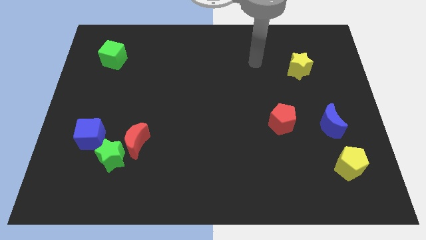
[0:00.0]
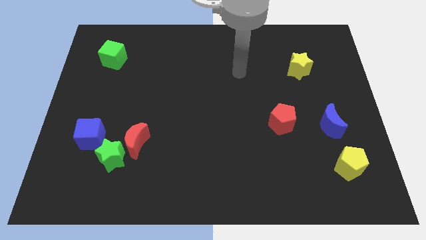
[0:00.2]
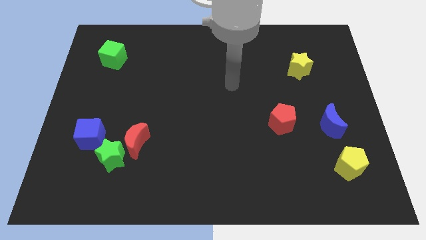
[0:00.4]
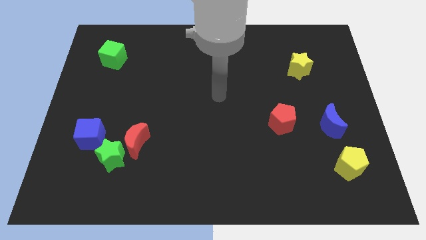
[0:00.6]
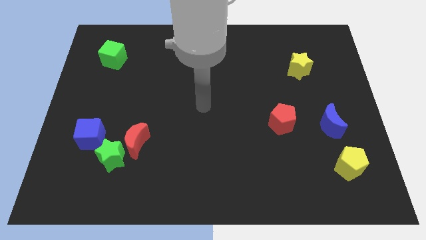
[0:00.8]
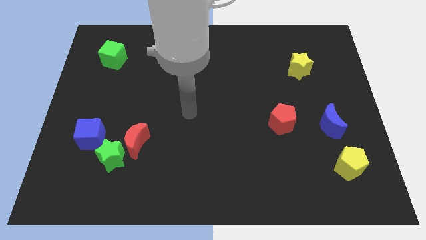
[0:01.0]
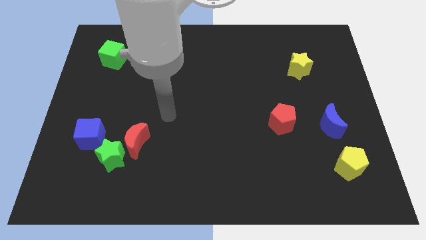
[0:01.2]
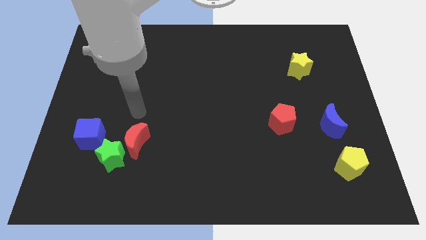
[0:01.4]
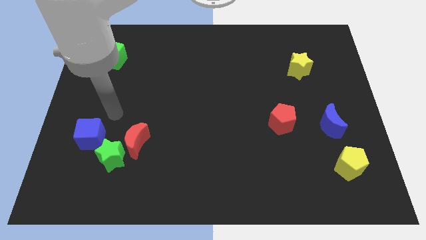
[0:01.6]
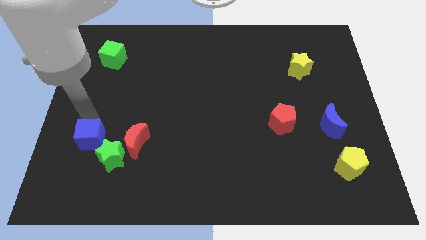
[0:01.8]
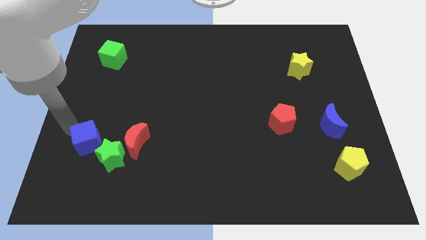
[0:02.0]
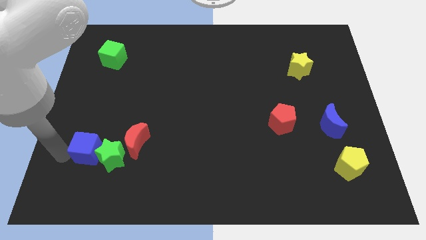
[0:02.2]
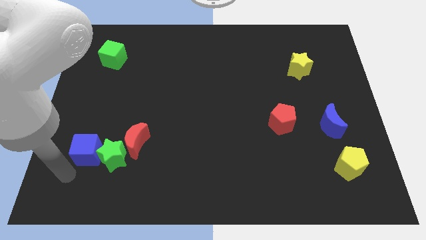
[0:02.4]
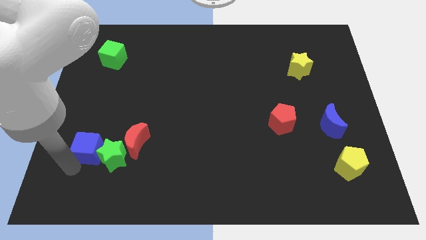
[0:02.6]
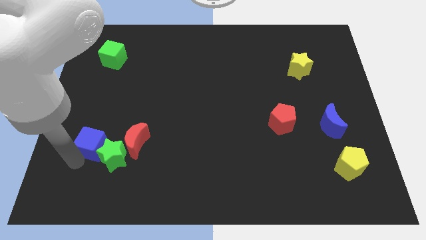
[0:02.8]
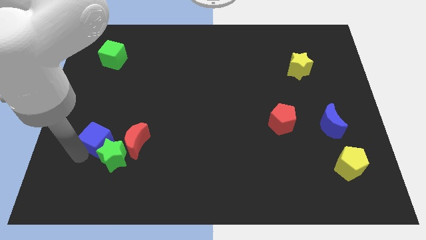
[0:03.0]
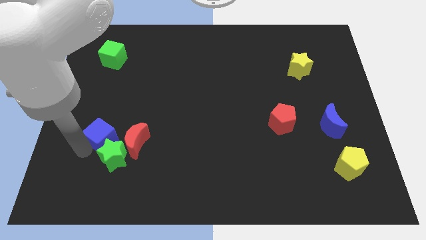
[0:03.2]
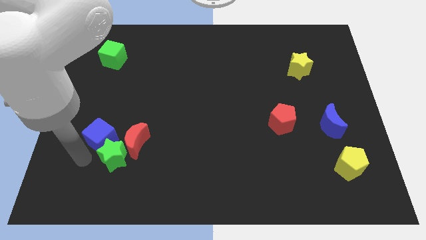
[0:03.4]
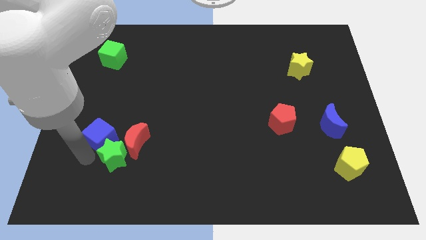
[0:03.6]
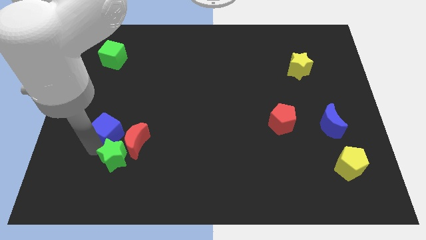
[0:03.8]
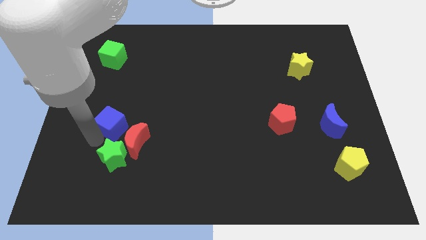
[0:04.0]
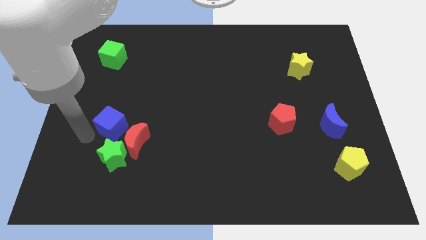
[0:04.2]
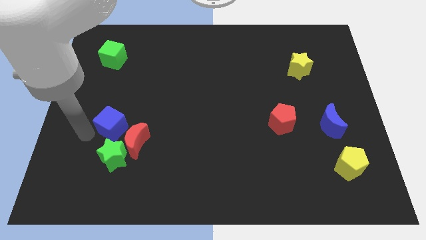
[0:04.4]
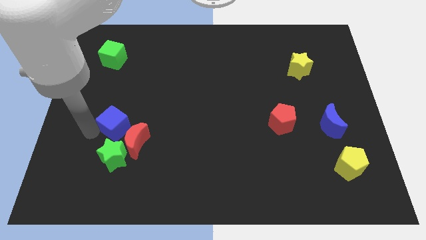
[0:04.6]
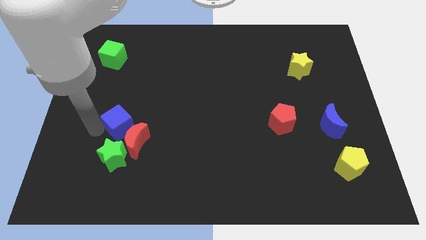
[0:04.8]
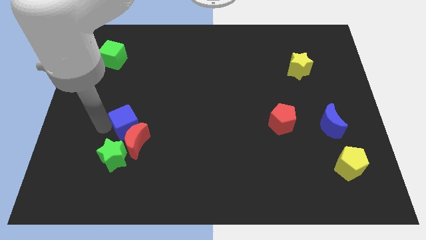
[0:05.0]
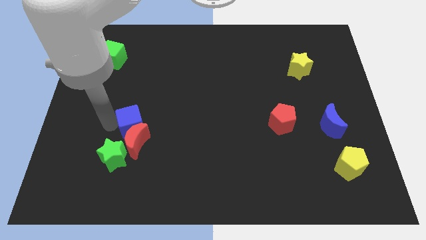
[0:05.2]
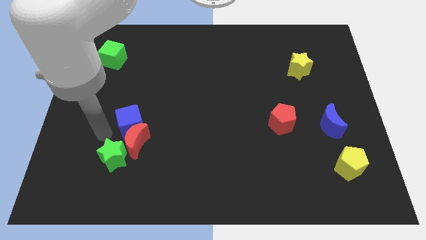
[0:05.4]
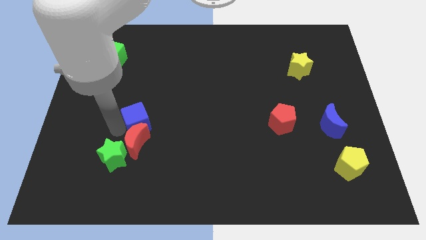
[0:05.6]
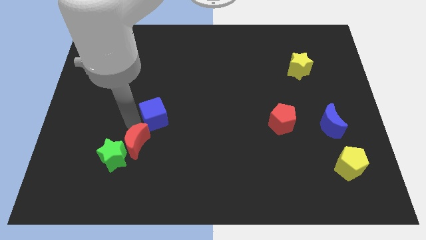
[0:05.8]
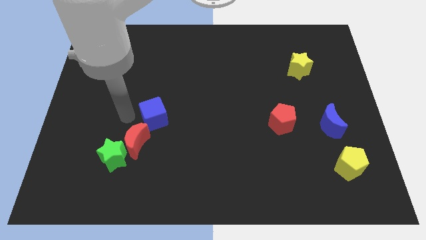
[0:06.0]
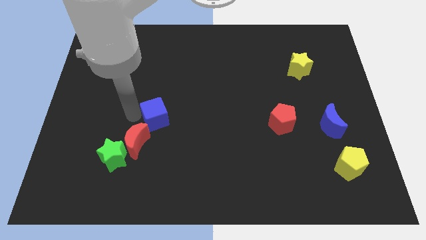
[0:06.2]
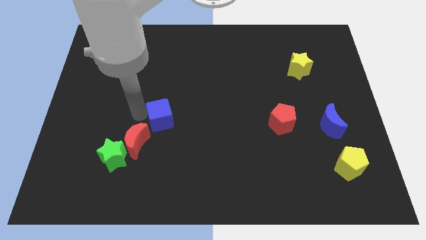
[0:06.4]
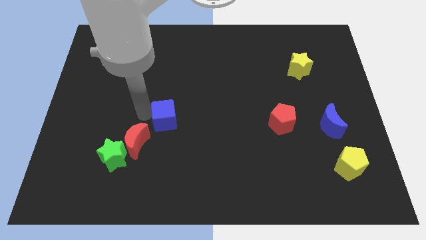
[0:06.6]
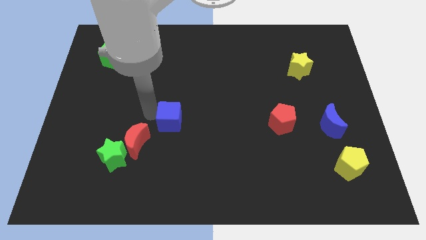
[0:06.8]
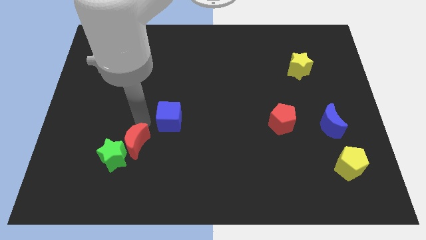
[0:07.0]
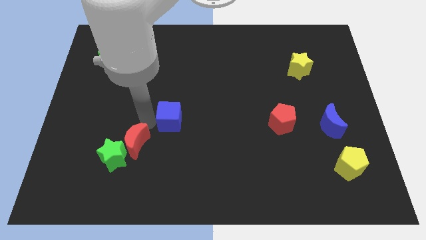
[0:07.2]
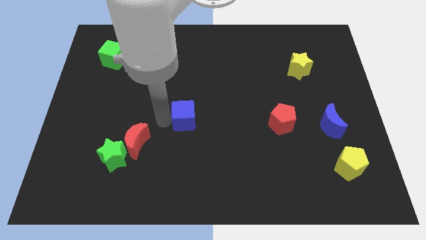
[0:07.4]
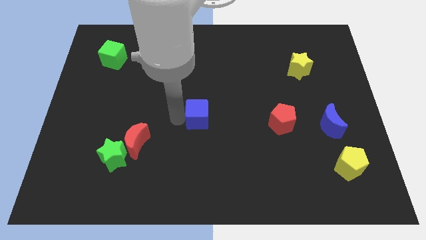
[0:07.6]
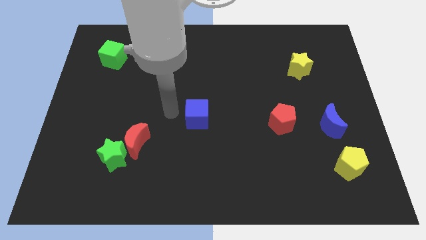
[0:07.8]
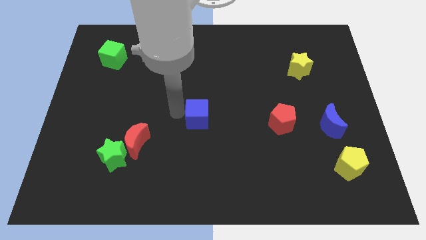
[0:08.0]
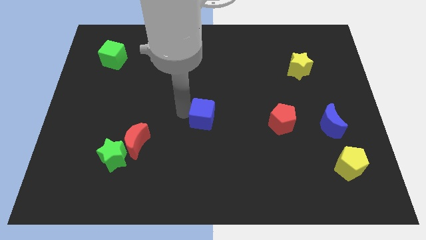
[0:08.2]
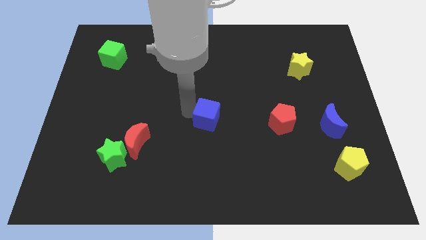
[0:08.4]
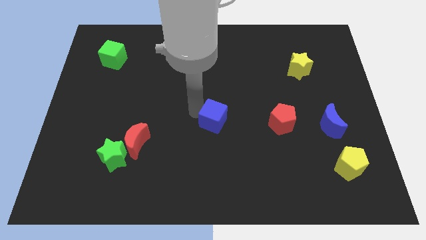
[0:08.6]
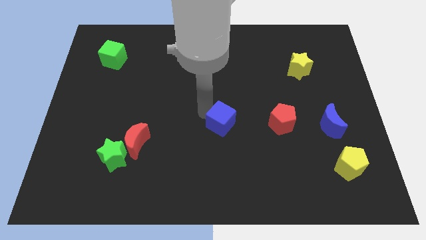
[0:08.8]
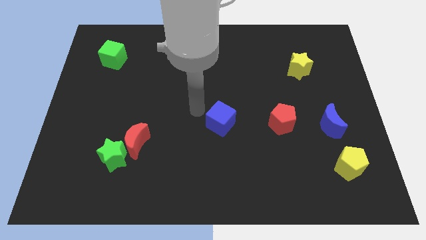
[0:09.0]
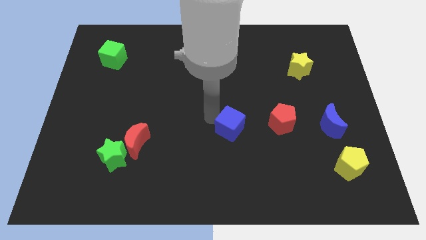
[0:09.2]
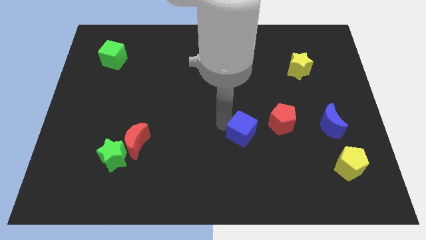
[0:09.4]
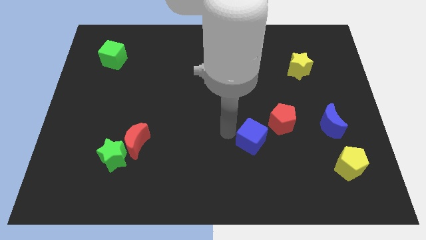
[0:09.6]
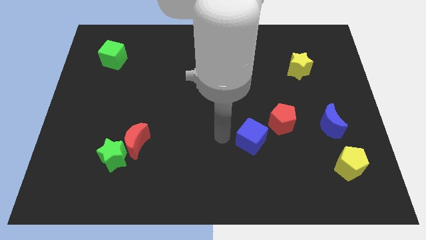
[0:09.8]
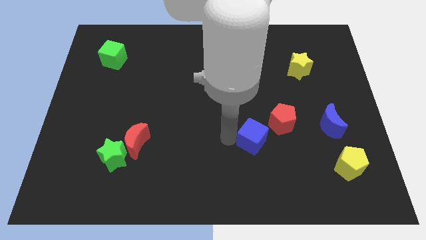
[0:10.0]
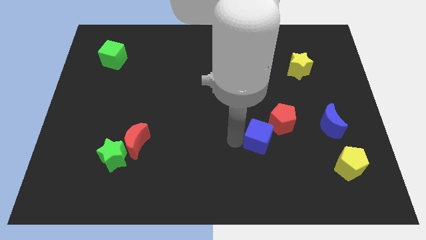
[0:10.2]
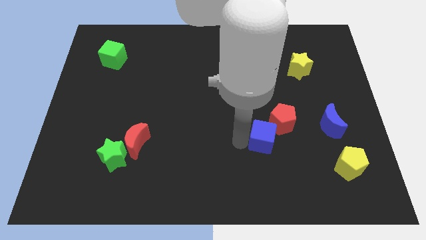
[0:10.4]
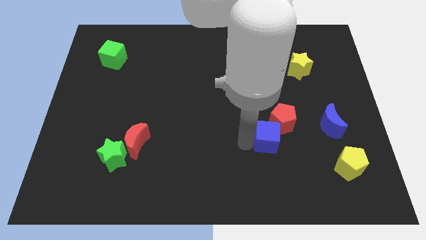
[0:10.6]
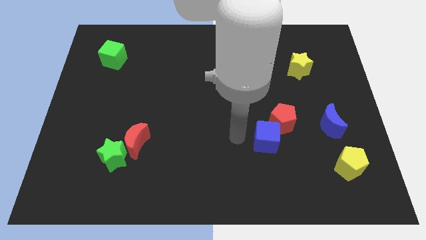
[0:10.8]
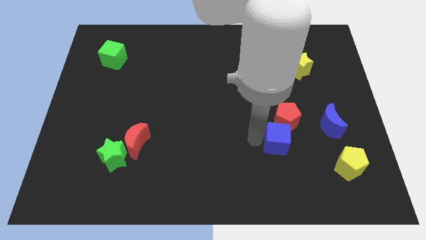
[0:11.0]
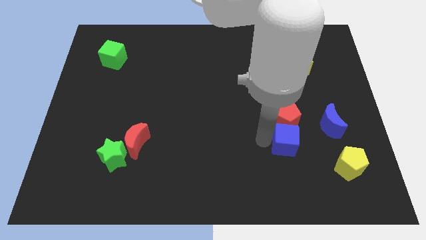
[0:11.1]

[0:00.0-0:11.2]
push the blue cube to the bottom left side of the blue moon

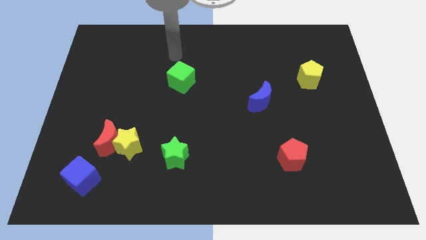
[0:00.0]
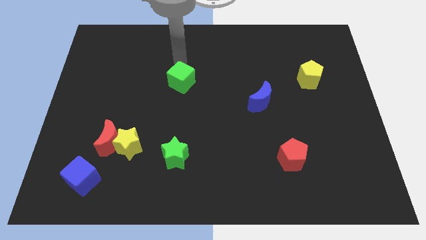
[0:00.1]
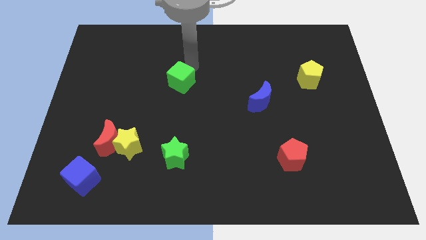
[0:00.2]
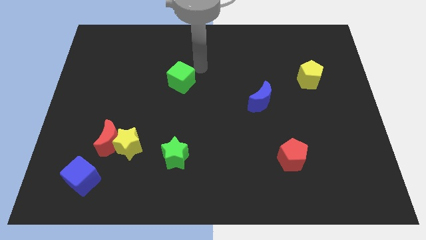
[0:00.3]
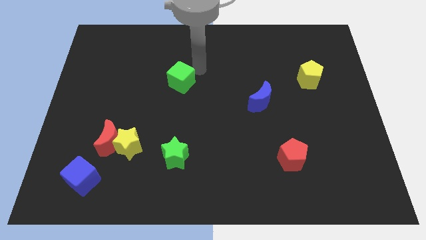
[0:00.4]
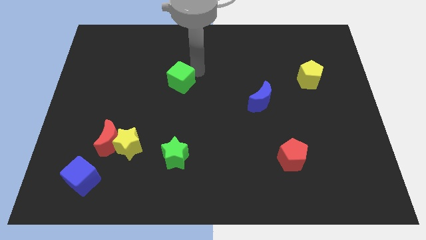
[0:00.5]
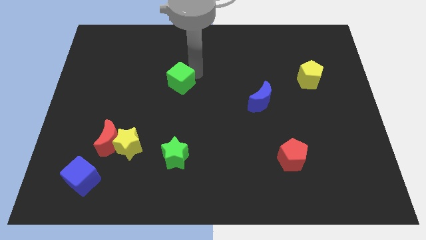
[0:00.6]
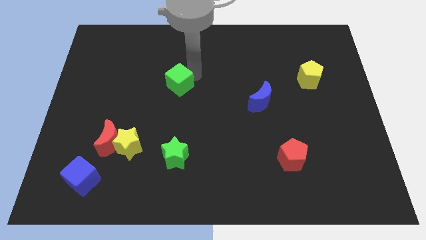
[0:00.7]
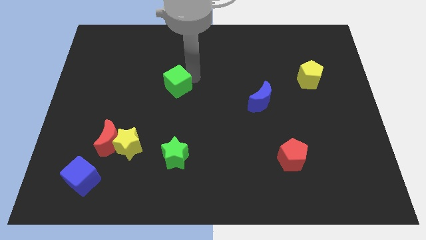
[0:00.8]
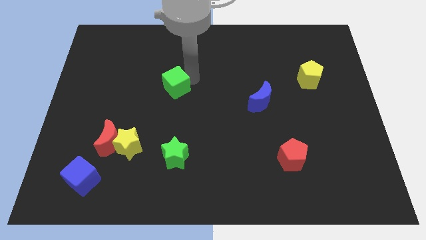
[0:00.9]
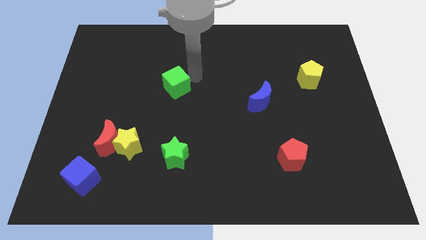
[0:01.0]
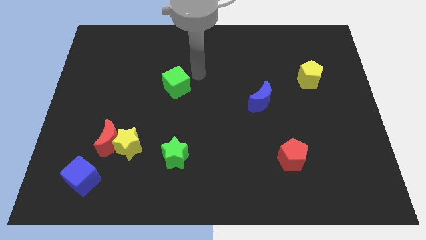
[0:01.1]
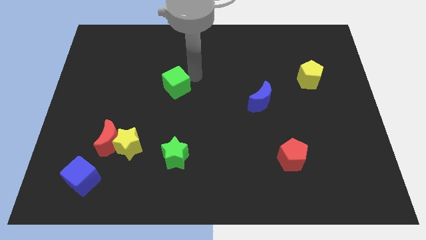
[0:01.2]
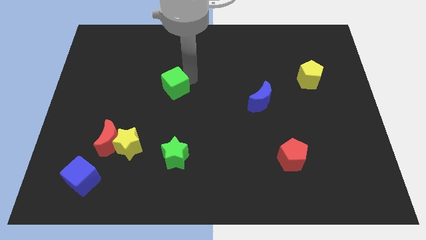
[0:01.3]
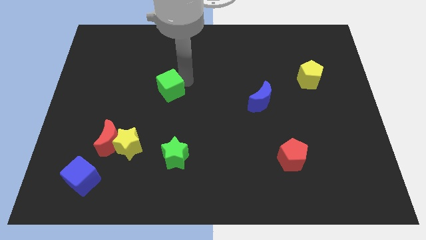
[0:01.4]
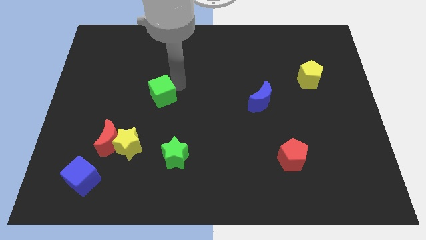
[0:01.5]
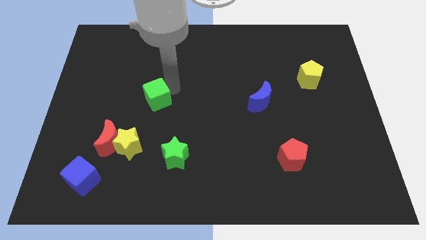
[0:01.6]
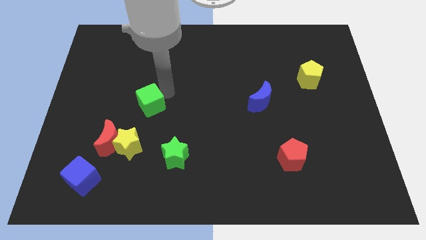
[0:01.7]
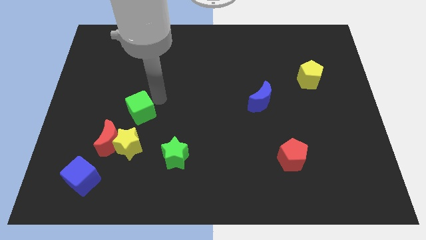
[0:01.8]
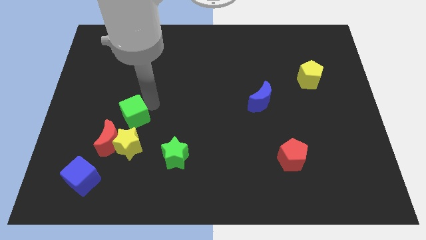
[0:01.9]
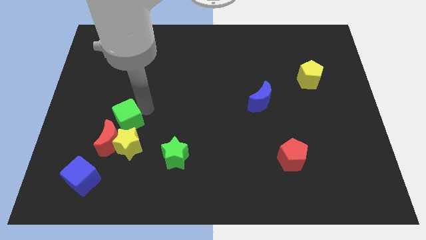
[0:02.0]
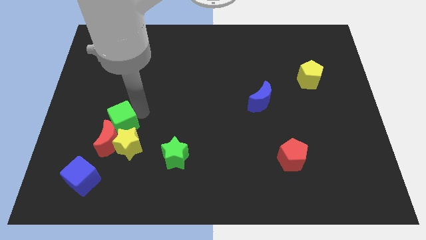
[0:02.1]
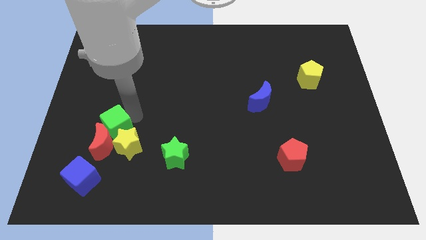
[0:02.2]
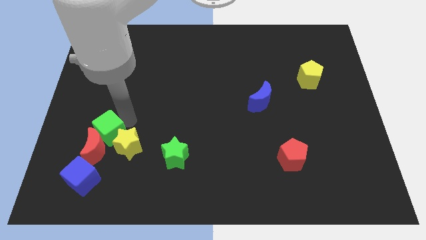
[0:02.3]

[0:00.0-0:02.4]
put the green cube to the left side of the yellow star
